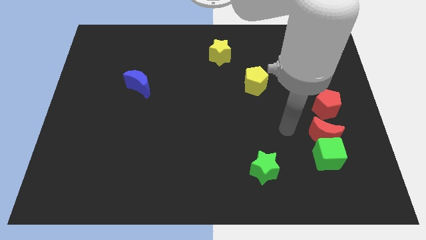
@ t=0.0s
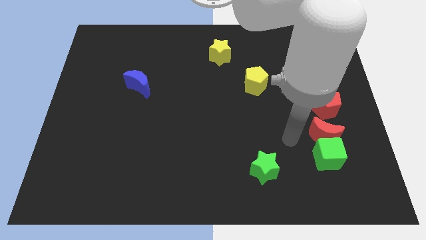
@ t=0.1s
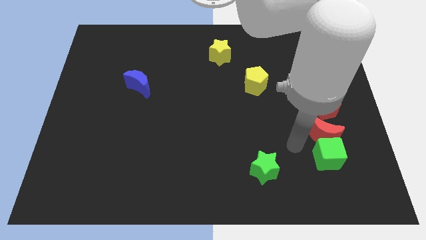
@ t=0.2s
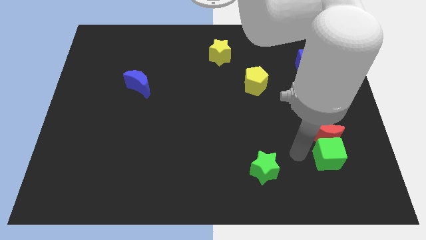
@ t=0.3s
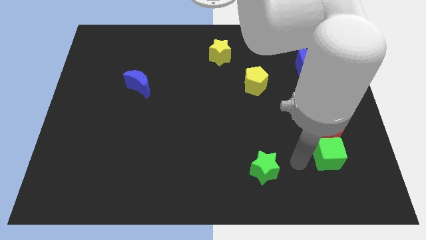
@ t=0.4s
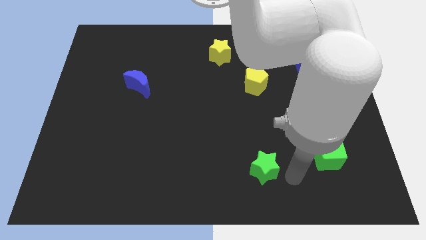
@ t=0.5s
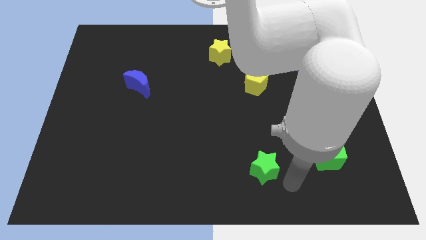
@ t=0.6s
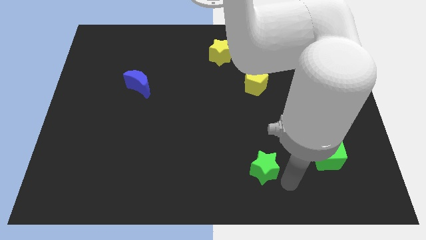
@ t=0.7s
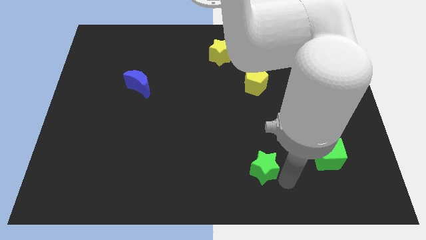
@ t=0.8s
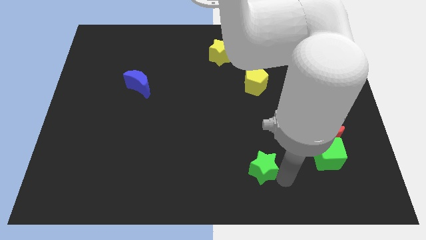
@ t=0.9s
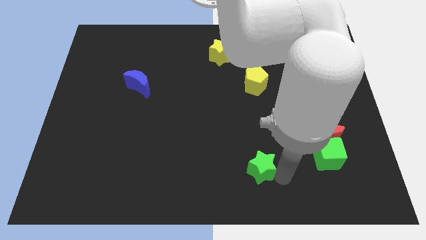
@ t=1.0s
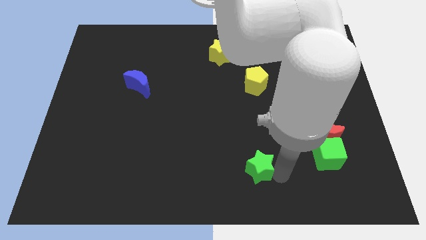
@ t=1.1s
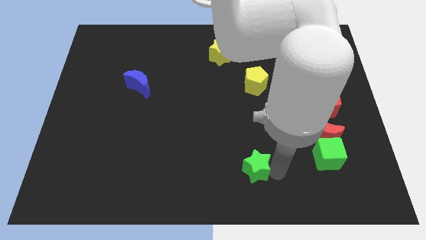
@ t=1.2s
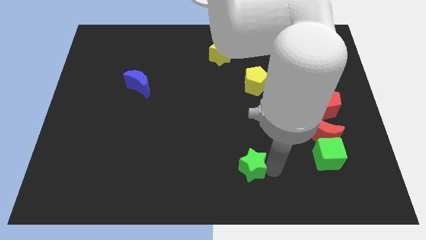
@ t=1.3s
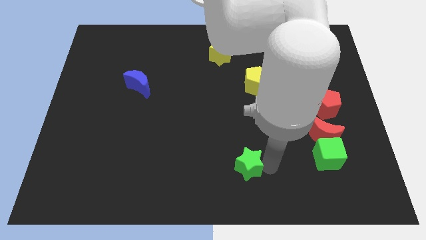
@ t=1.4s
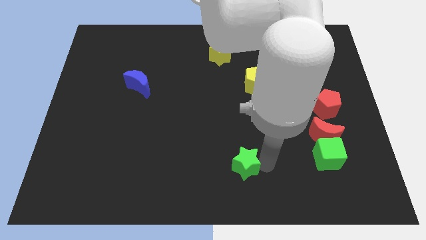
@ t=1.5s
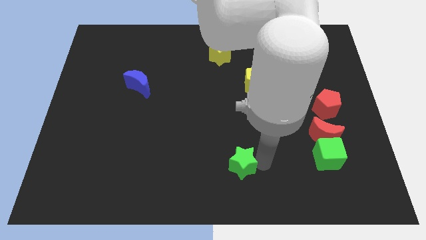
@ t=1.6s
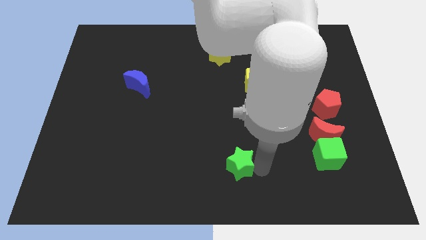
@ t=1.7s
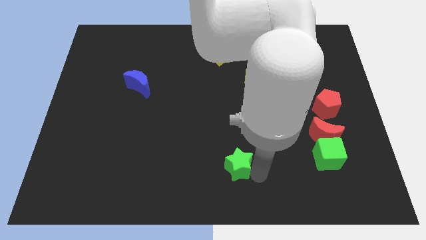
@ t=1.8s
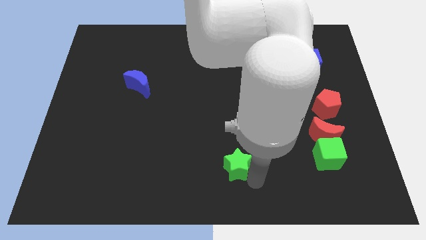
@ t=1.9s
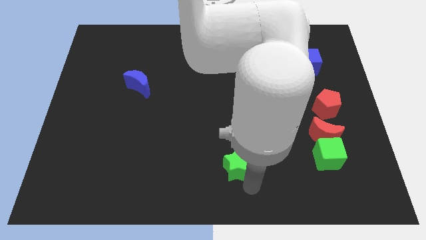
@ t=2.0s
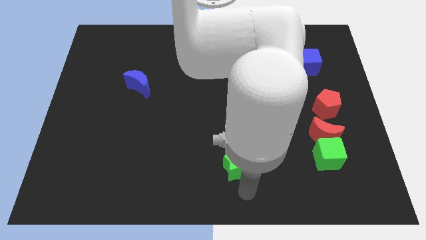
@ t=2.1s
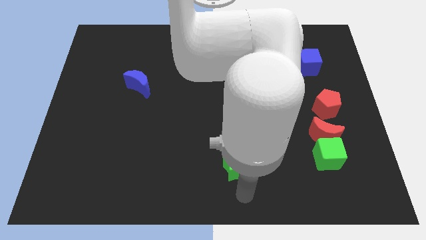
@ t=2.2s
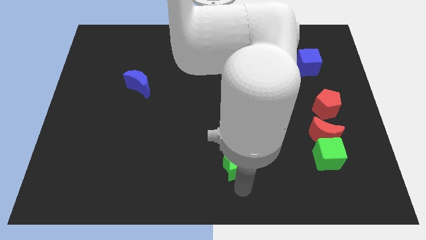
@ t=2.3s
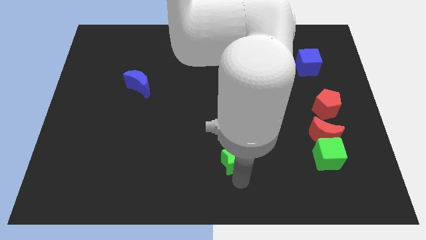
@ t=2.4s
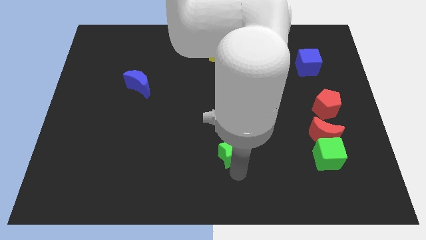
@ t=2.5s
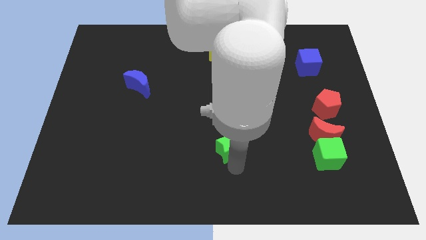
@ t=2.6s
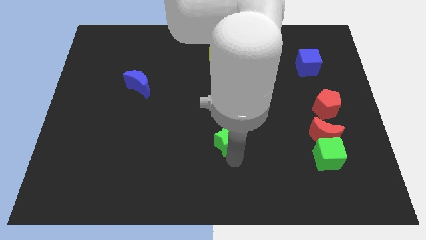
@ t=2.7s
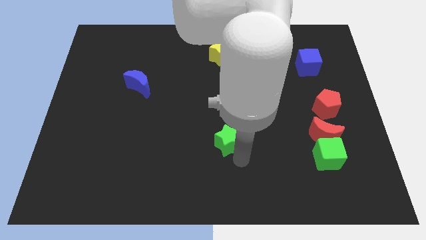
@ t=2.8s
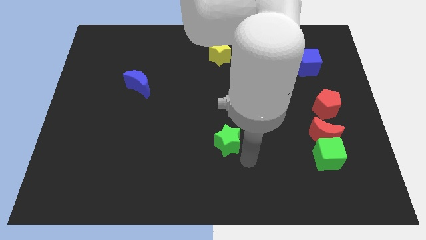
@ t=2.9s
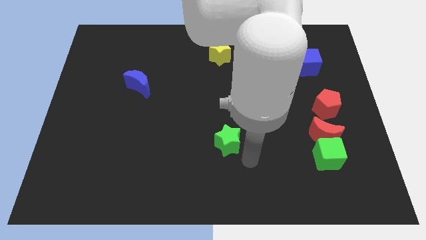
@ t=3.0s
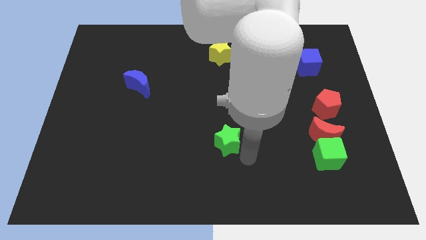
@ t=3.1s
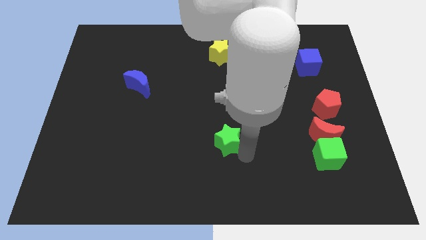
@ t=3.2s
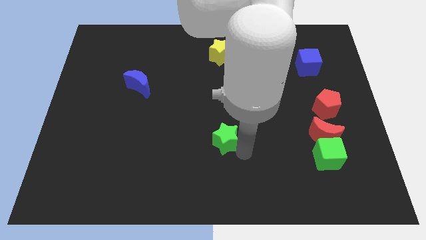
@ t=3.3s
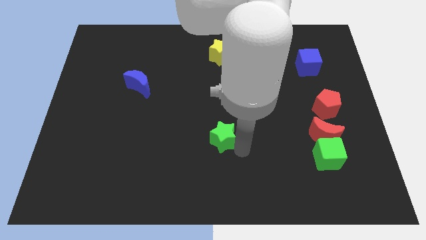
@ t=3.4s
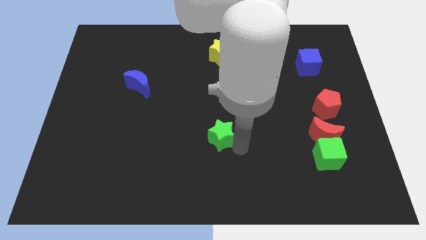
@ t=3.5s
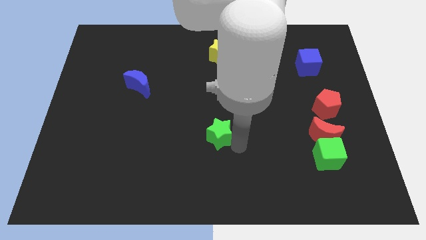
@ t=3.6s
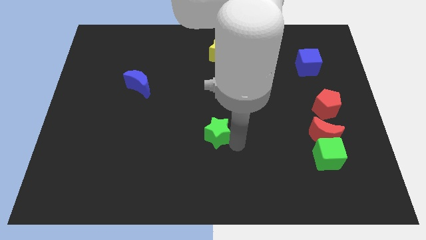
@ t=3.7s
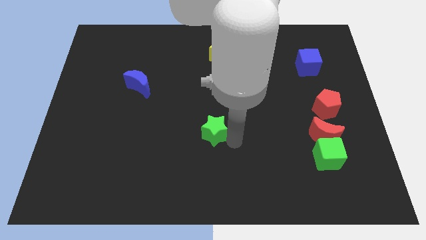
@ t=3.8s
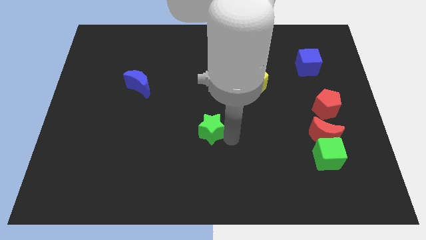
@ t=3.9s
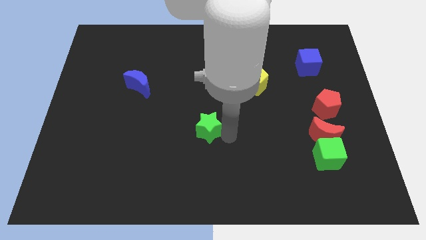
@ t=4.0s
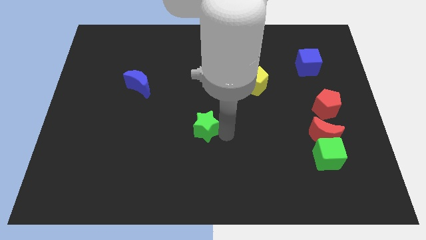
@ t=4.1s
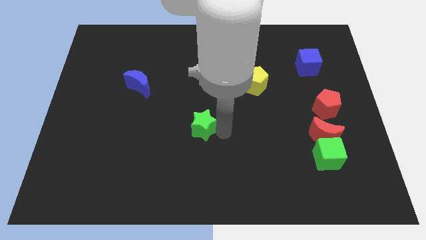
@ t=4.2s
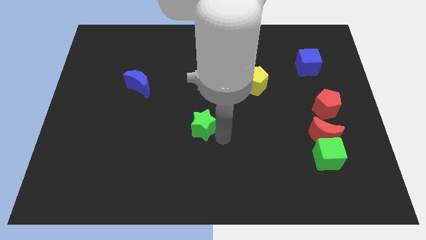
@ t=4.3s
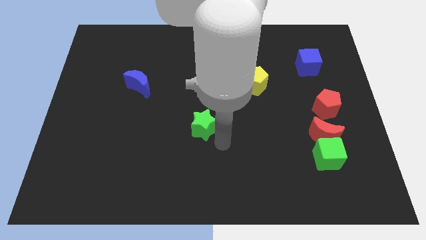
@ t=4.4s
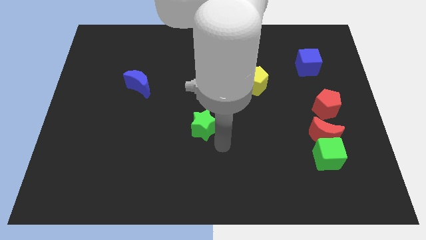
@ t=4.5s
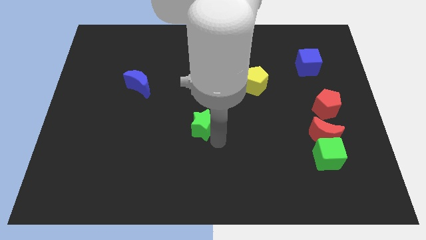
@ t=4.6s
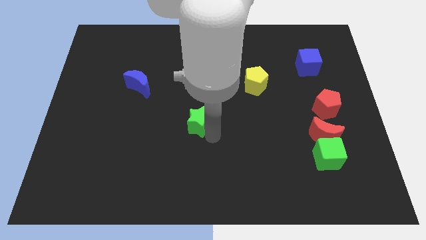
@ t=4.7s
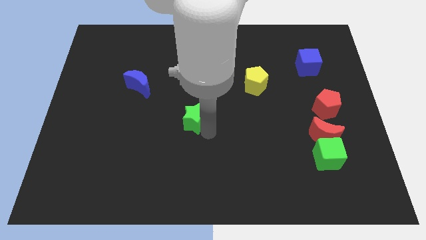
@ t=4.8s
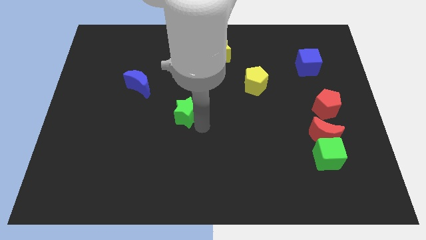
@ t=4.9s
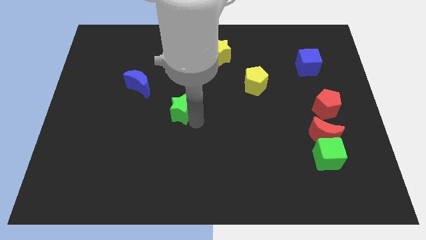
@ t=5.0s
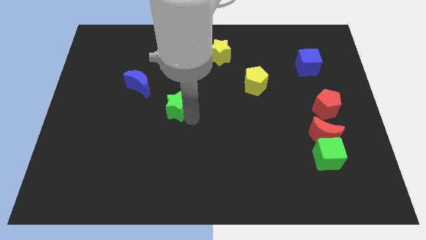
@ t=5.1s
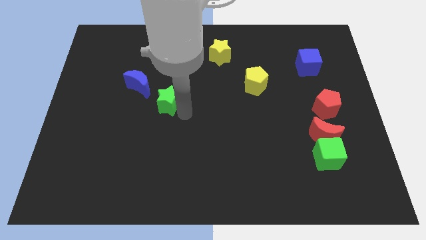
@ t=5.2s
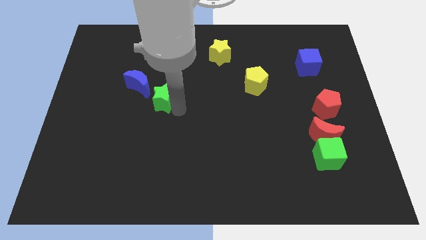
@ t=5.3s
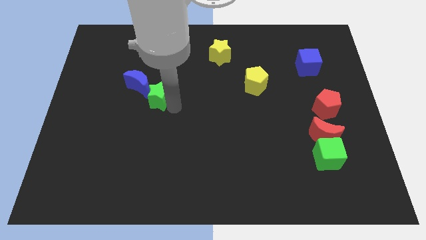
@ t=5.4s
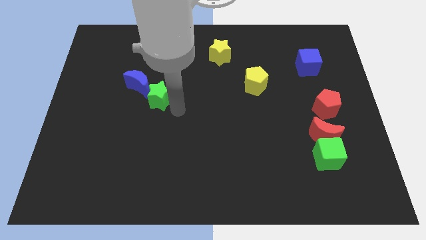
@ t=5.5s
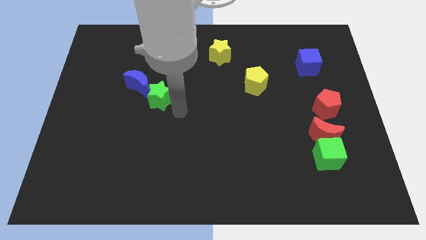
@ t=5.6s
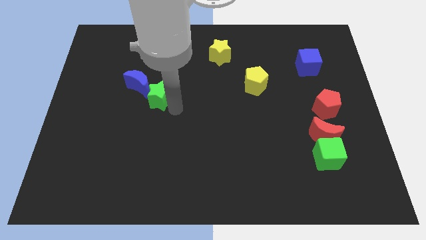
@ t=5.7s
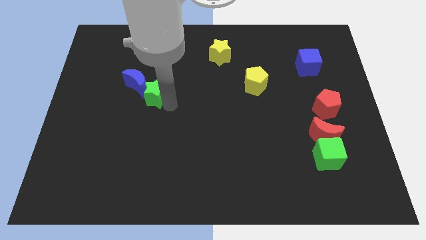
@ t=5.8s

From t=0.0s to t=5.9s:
put the green star next to the blue moon

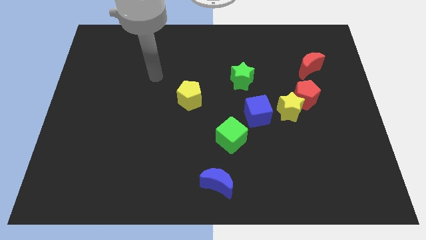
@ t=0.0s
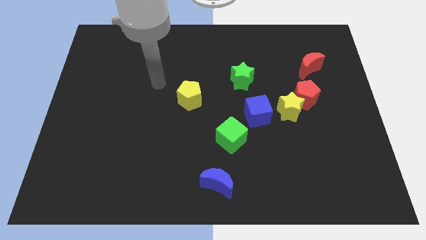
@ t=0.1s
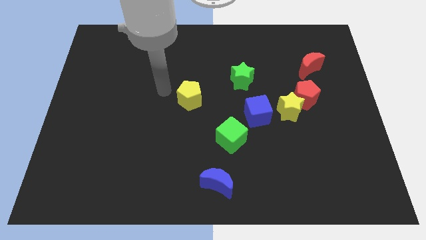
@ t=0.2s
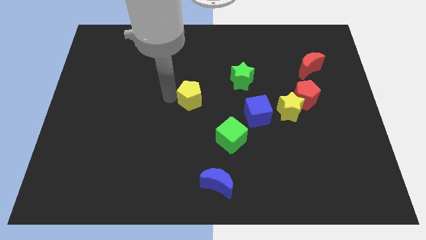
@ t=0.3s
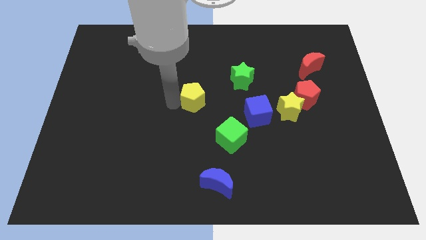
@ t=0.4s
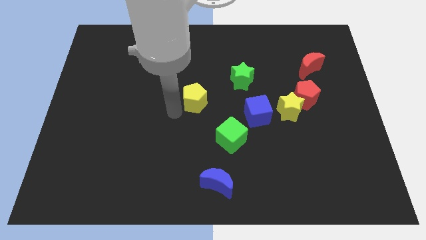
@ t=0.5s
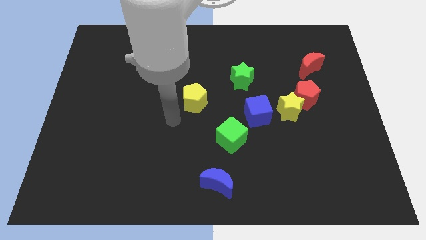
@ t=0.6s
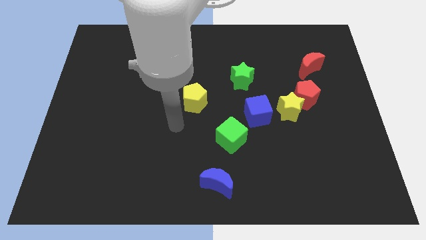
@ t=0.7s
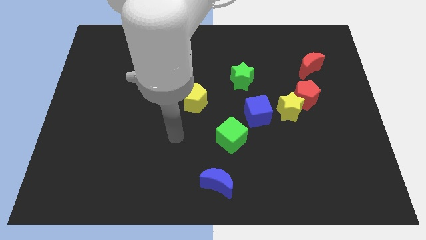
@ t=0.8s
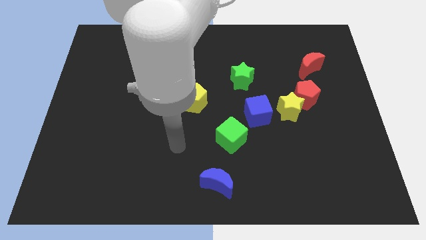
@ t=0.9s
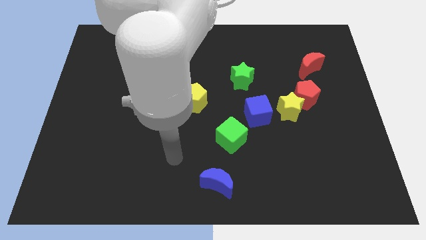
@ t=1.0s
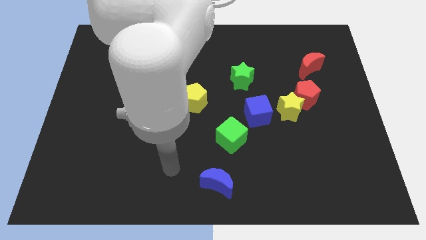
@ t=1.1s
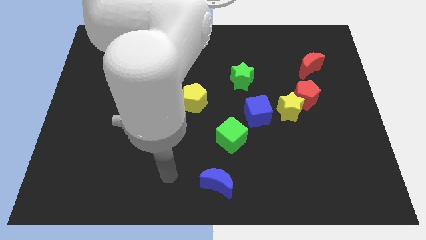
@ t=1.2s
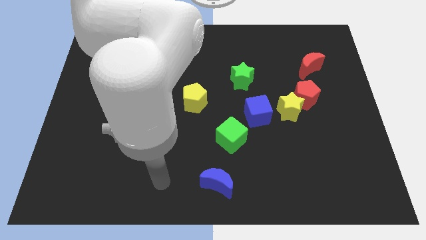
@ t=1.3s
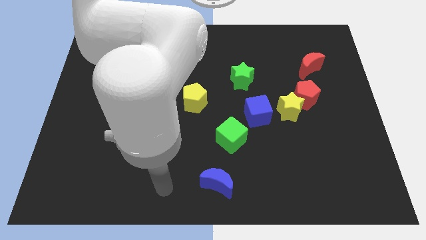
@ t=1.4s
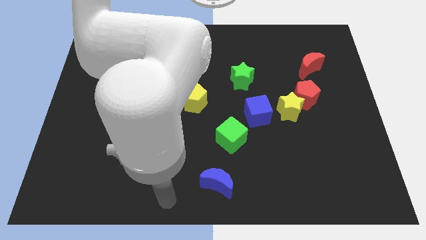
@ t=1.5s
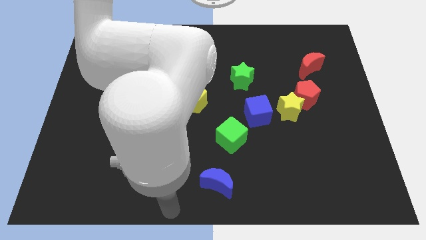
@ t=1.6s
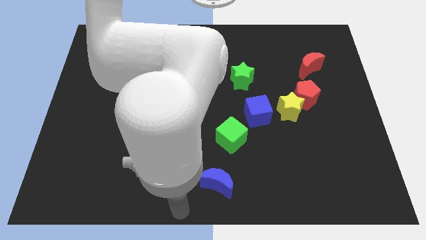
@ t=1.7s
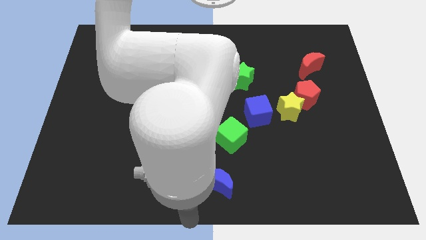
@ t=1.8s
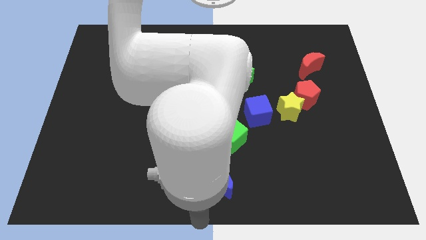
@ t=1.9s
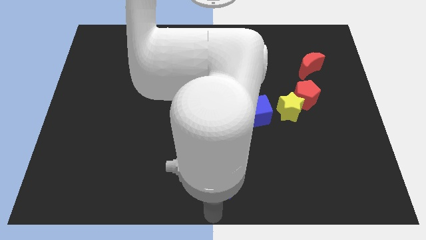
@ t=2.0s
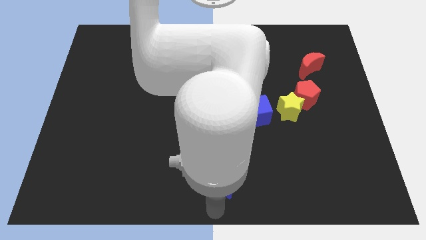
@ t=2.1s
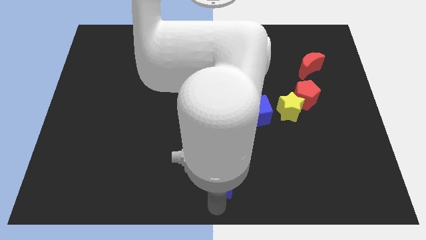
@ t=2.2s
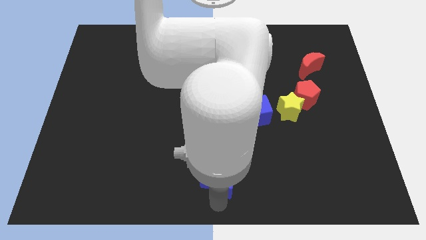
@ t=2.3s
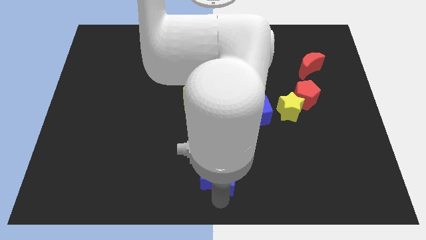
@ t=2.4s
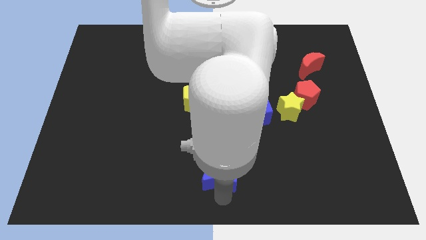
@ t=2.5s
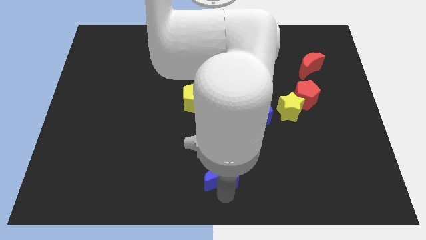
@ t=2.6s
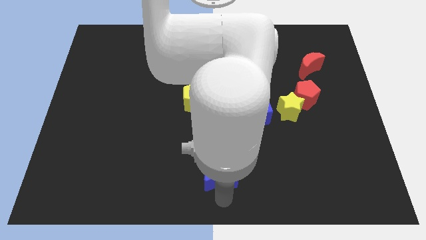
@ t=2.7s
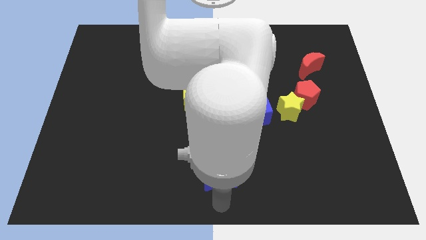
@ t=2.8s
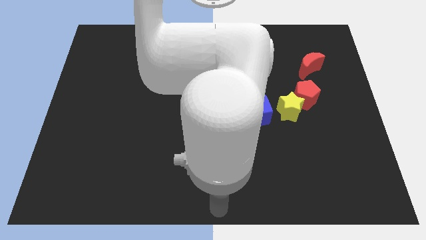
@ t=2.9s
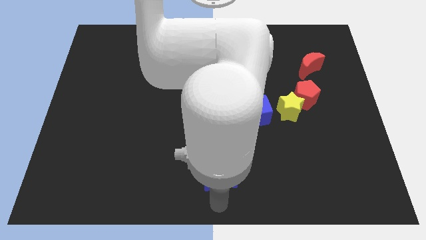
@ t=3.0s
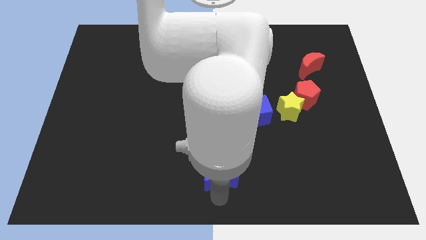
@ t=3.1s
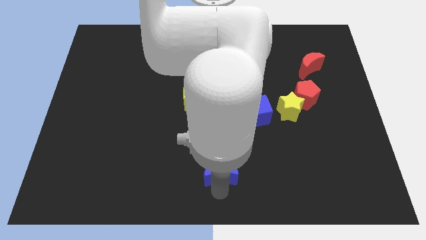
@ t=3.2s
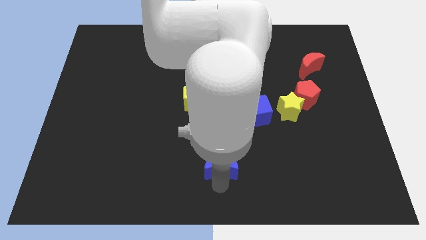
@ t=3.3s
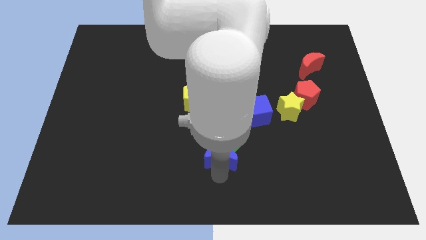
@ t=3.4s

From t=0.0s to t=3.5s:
move the blue moon next to the green cube
